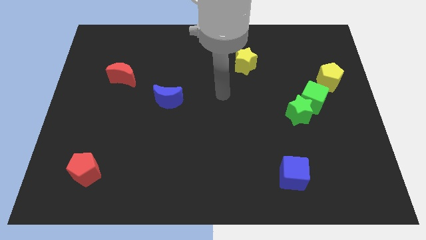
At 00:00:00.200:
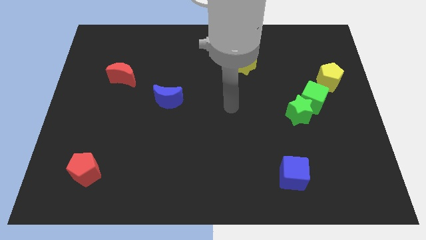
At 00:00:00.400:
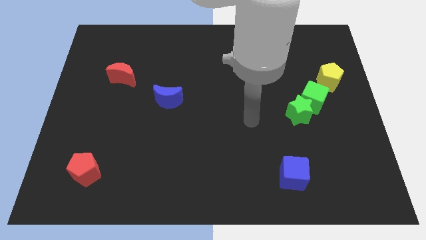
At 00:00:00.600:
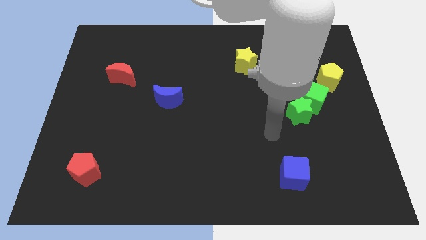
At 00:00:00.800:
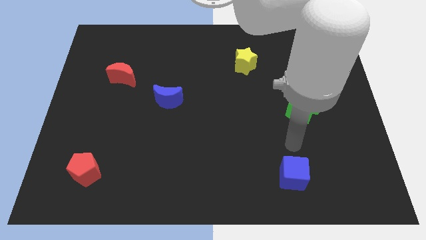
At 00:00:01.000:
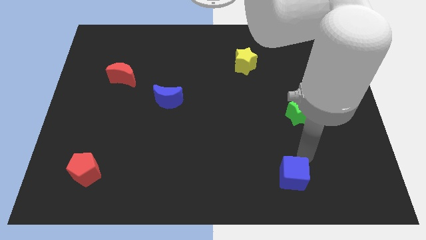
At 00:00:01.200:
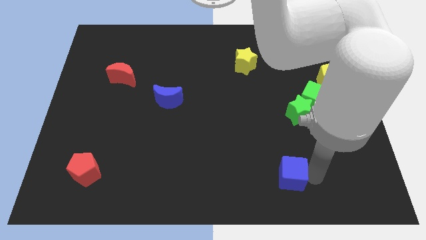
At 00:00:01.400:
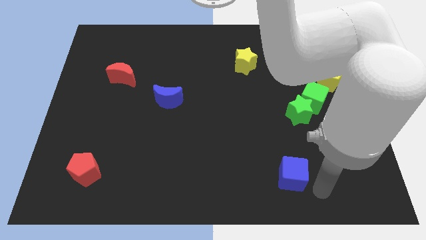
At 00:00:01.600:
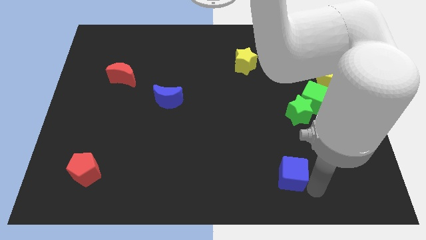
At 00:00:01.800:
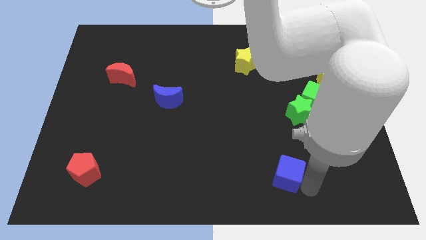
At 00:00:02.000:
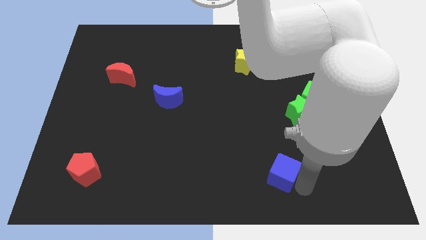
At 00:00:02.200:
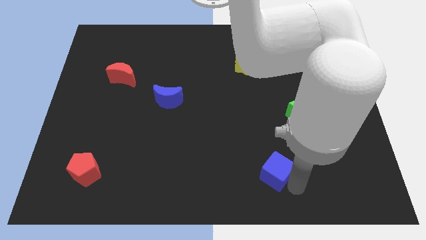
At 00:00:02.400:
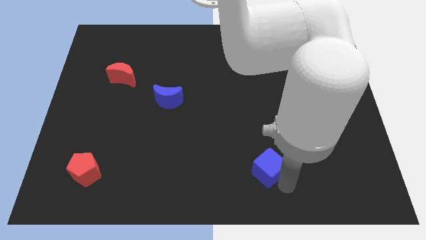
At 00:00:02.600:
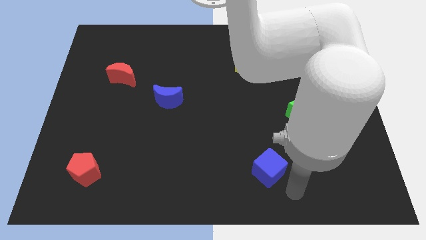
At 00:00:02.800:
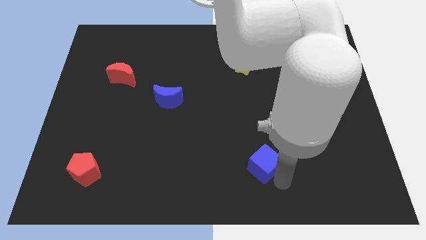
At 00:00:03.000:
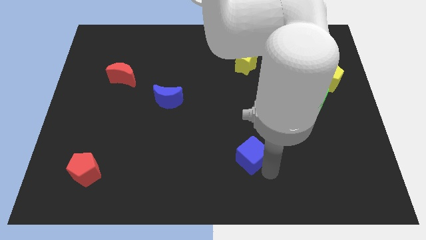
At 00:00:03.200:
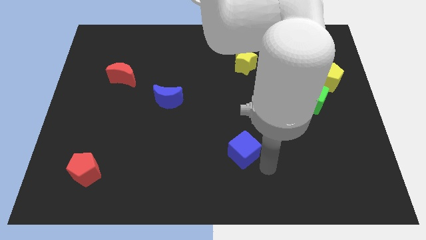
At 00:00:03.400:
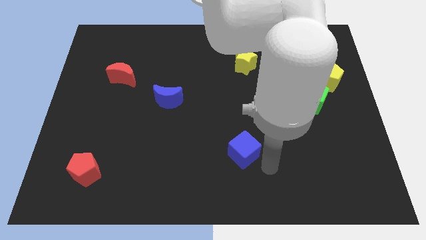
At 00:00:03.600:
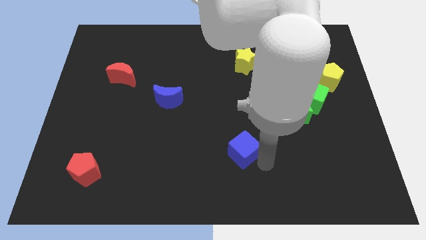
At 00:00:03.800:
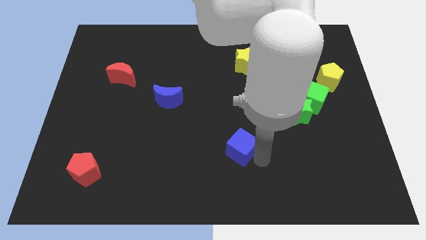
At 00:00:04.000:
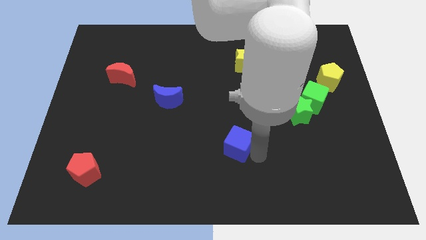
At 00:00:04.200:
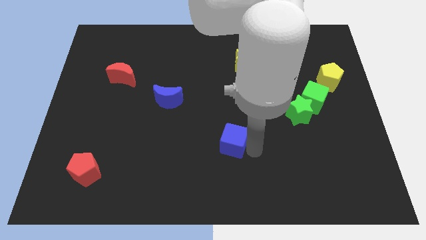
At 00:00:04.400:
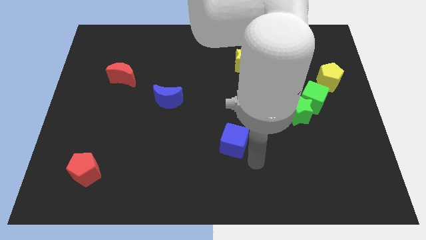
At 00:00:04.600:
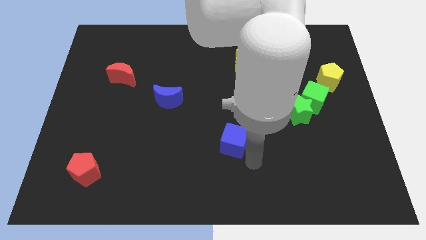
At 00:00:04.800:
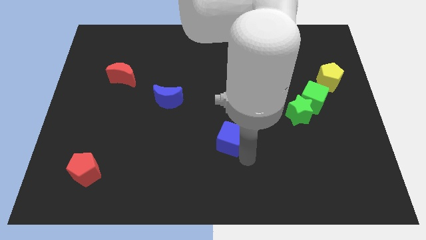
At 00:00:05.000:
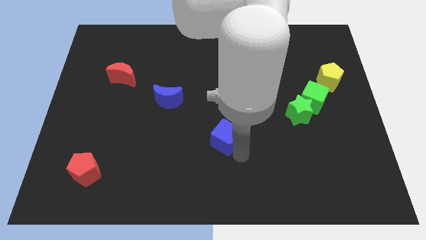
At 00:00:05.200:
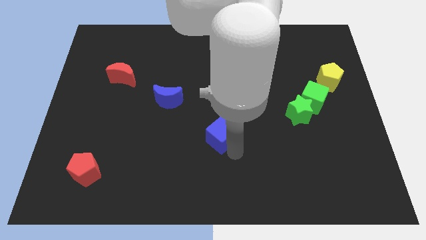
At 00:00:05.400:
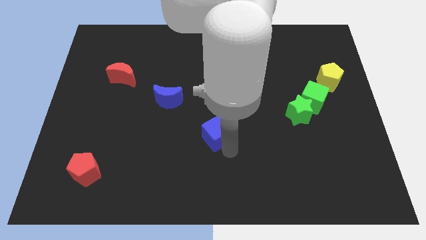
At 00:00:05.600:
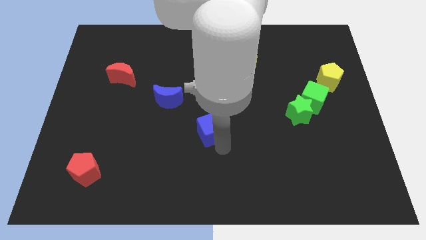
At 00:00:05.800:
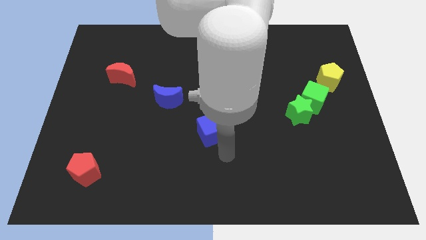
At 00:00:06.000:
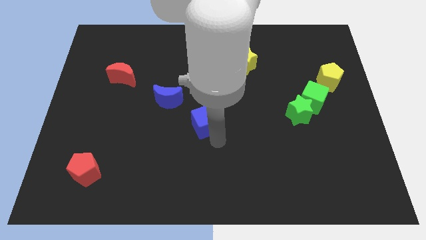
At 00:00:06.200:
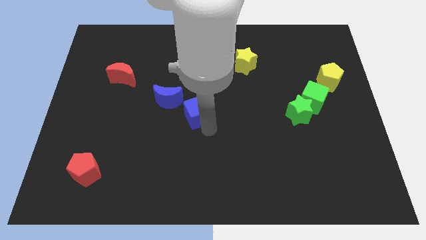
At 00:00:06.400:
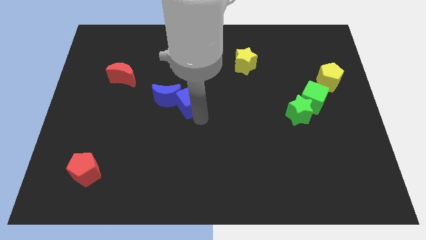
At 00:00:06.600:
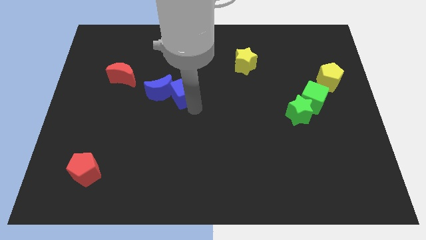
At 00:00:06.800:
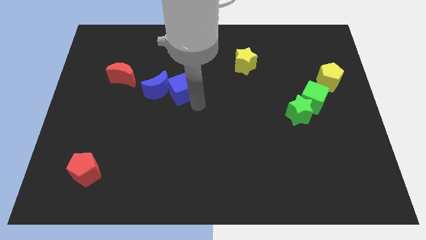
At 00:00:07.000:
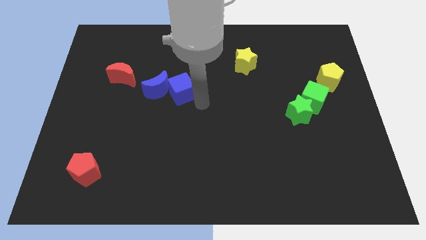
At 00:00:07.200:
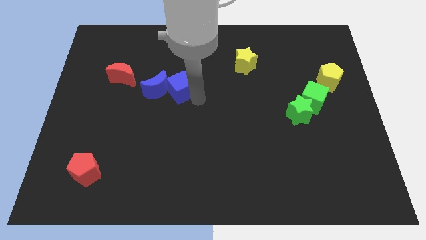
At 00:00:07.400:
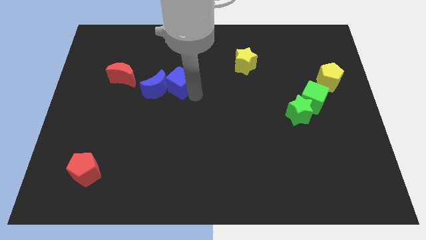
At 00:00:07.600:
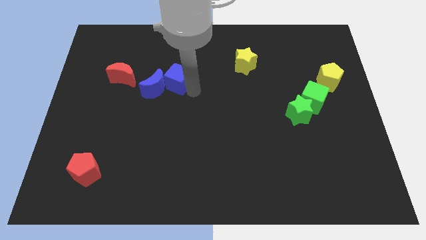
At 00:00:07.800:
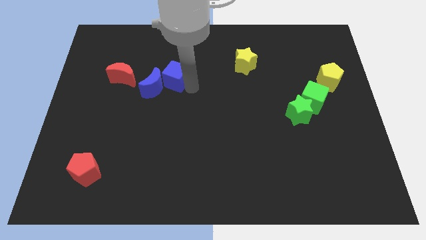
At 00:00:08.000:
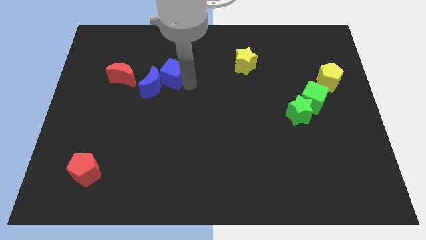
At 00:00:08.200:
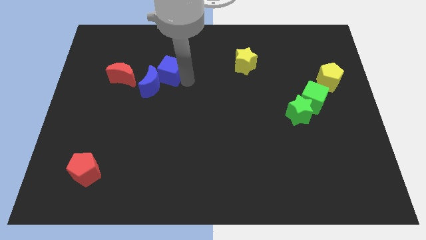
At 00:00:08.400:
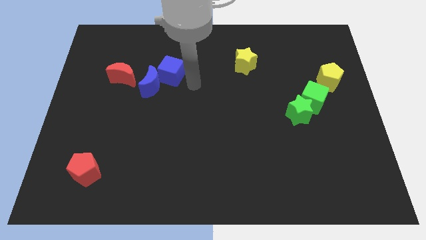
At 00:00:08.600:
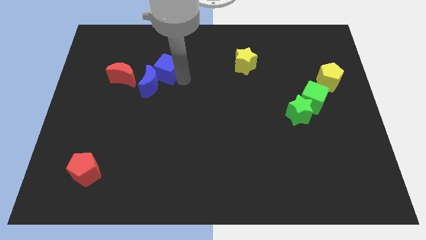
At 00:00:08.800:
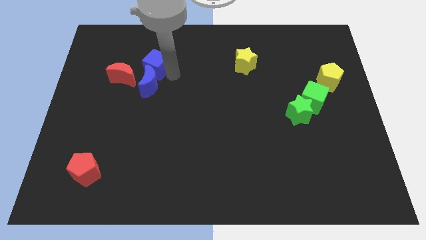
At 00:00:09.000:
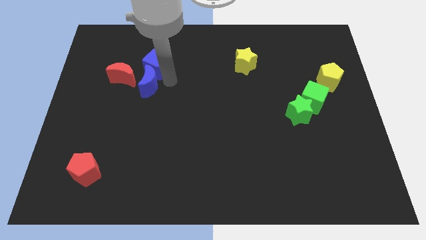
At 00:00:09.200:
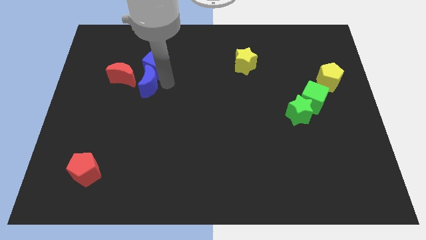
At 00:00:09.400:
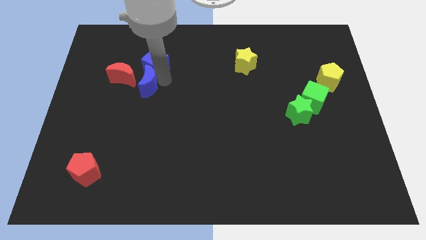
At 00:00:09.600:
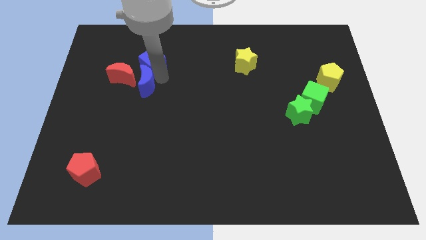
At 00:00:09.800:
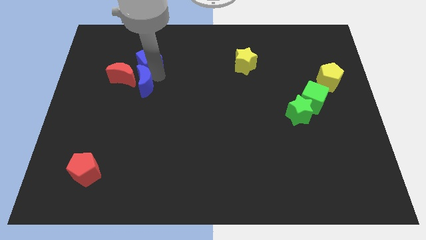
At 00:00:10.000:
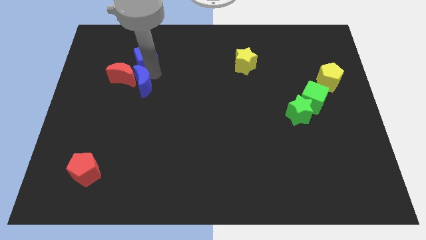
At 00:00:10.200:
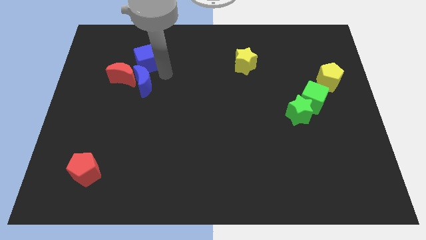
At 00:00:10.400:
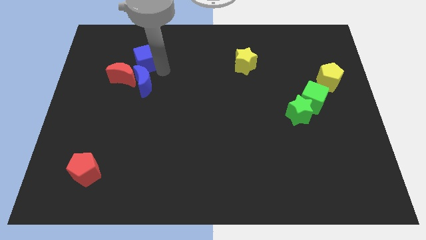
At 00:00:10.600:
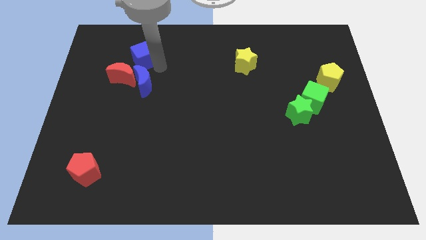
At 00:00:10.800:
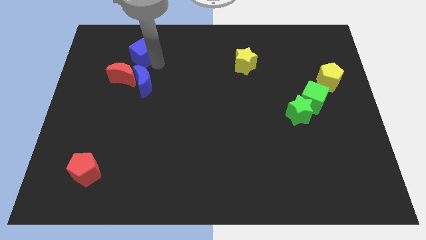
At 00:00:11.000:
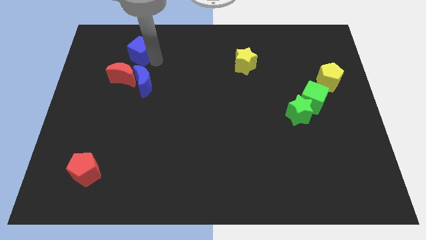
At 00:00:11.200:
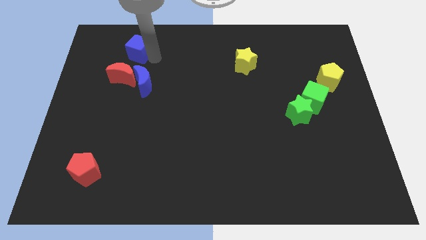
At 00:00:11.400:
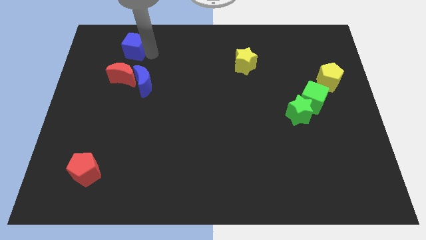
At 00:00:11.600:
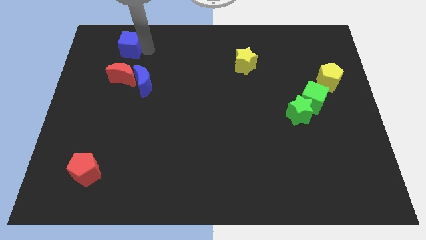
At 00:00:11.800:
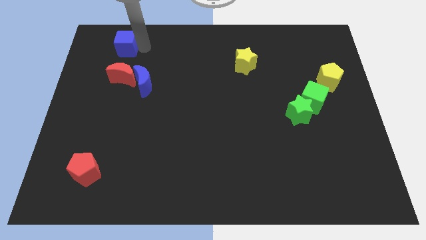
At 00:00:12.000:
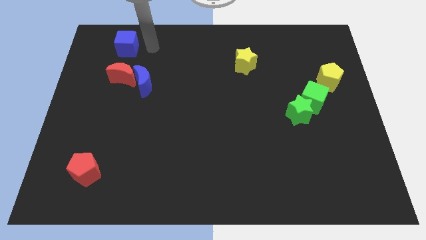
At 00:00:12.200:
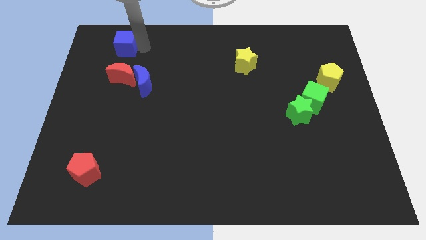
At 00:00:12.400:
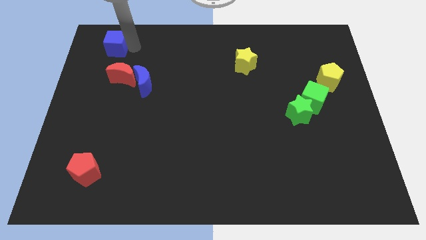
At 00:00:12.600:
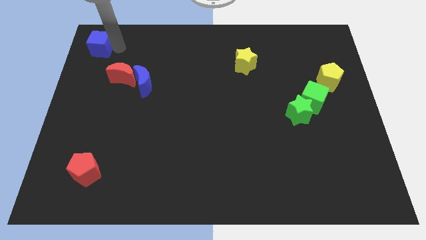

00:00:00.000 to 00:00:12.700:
push the blue cube to the top left corner
